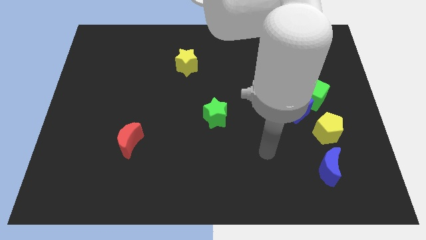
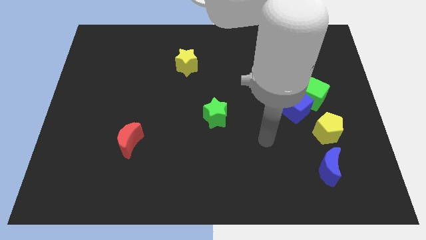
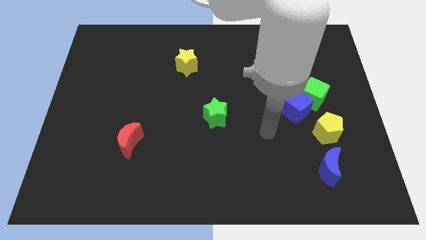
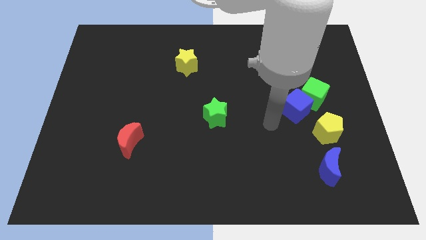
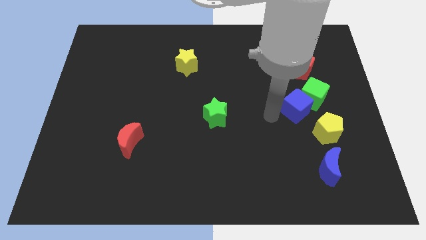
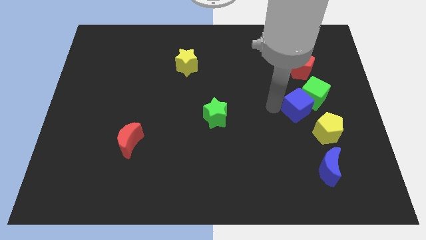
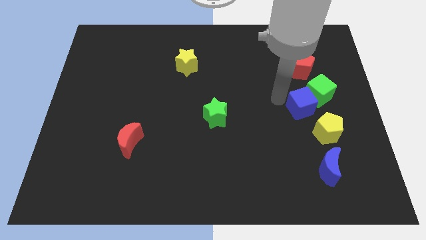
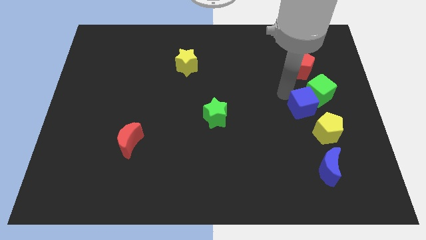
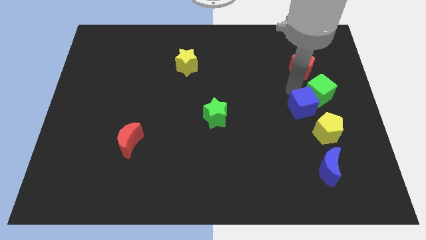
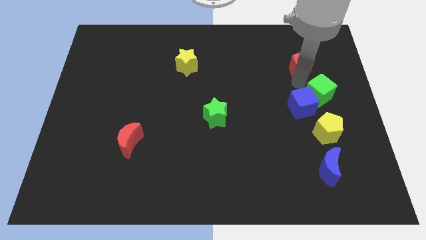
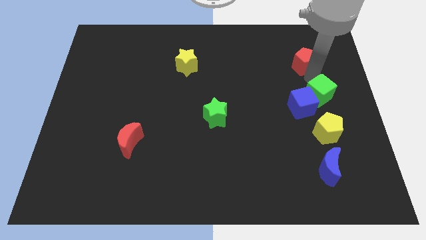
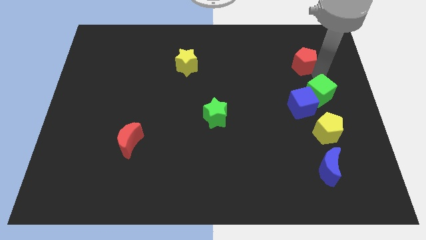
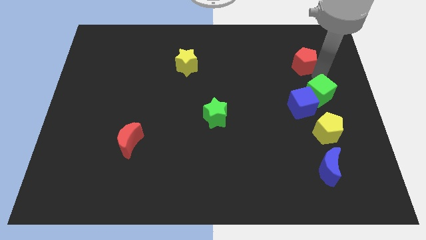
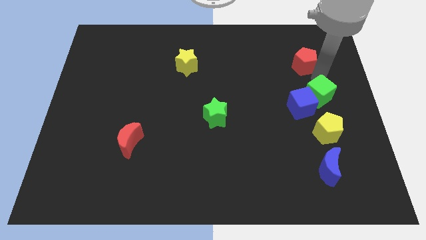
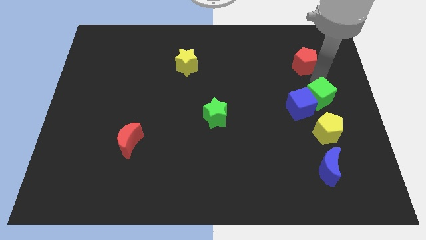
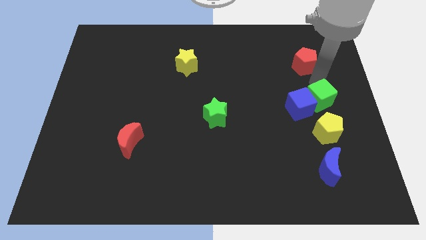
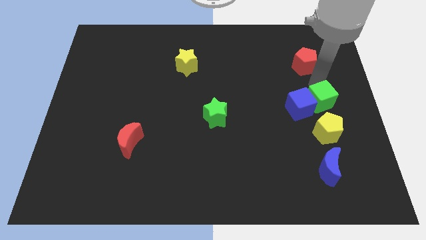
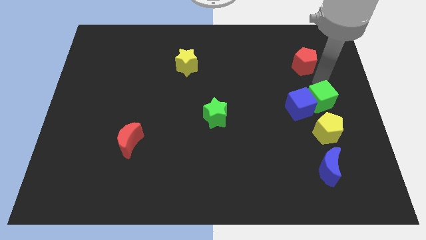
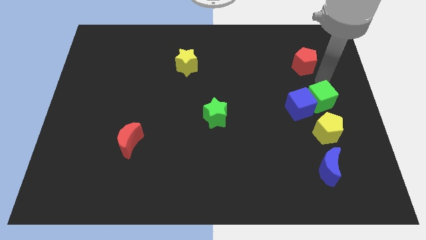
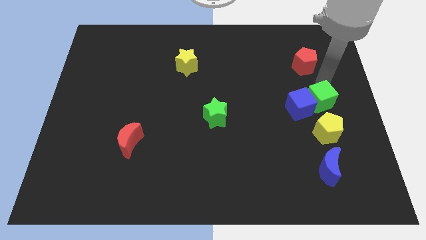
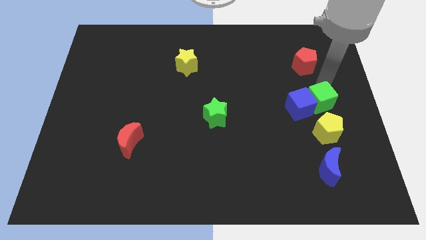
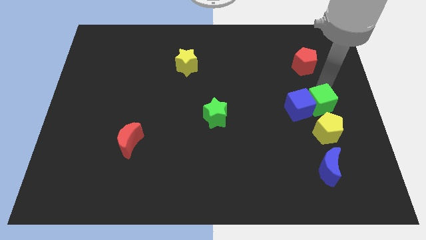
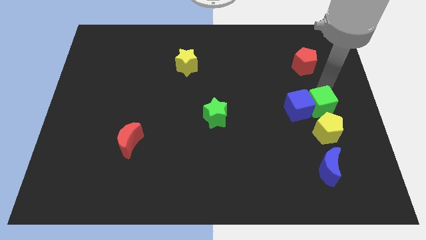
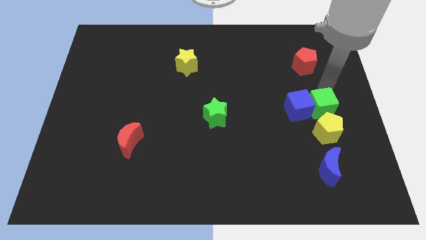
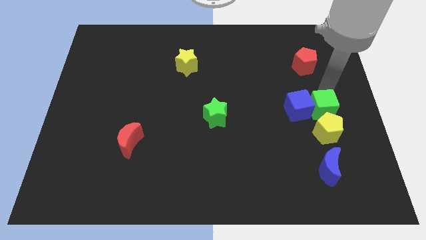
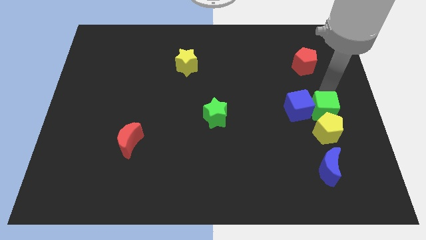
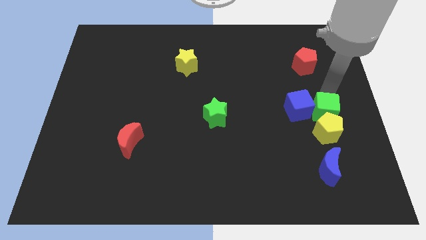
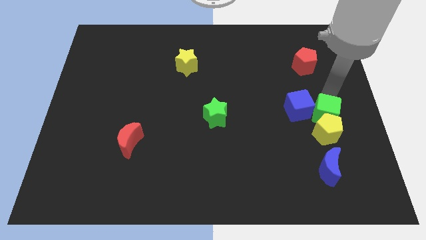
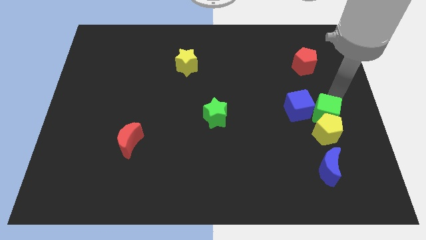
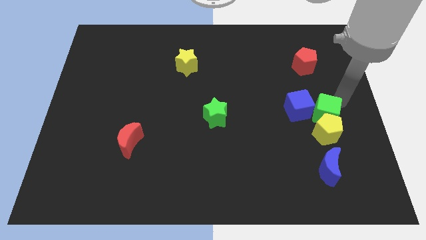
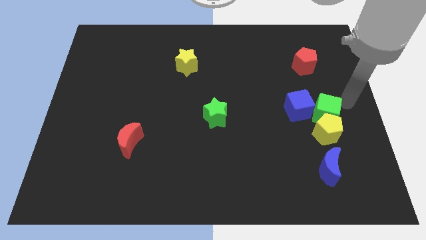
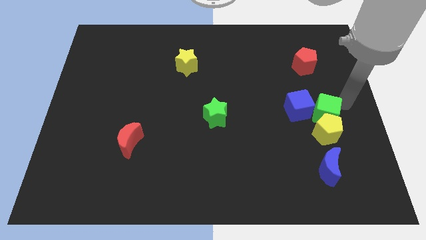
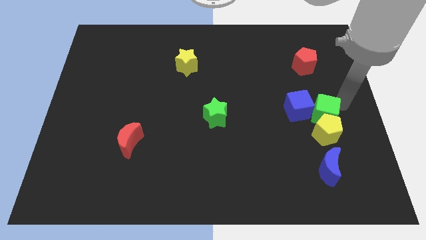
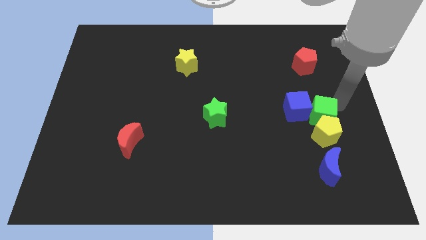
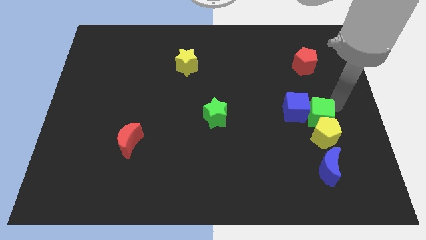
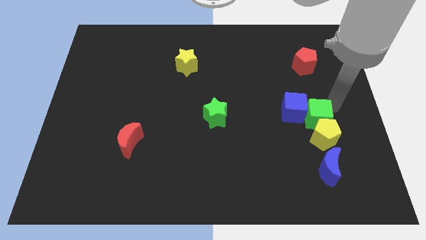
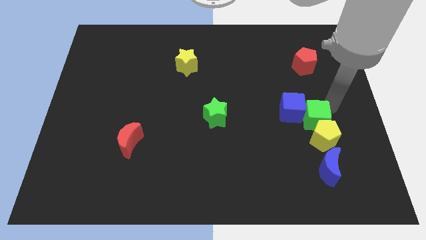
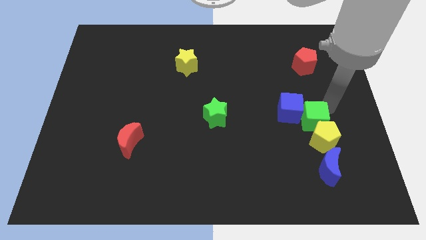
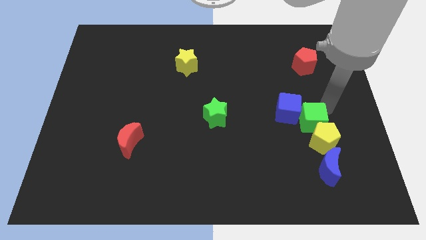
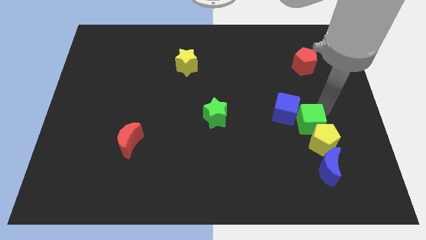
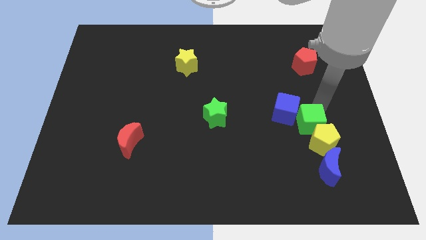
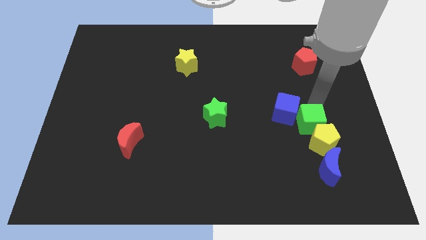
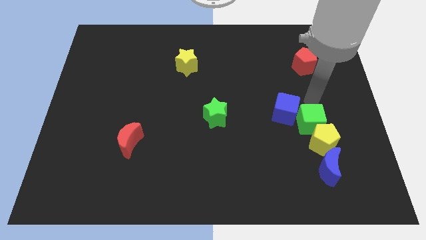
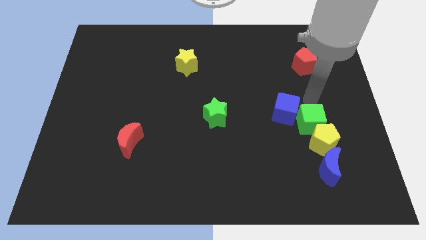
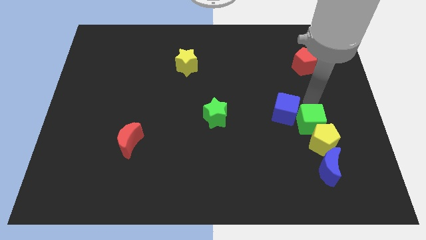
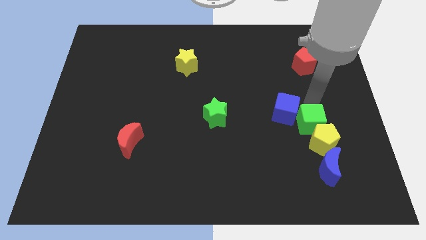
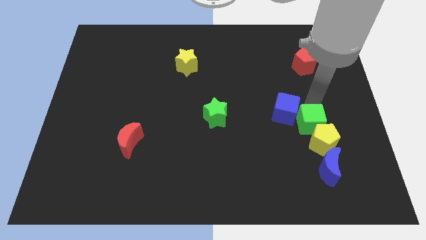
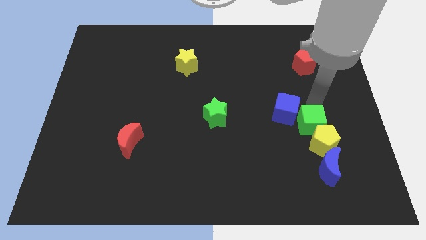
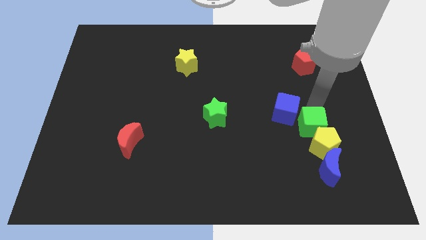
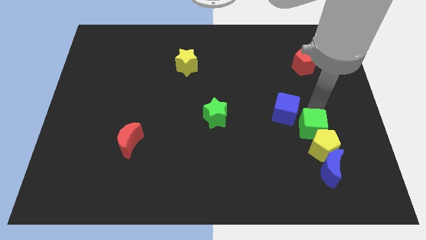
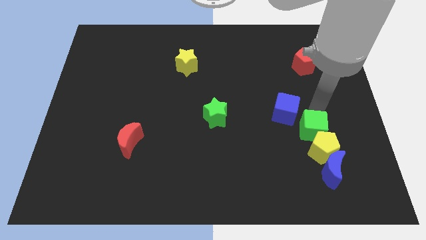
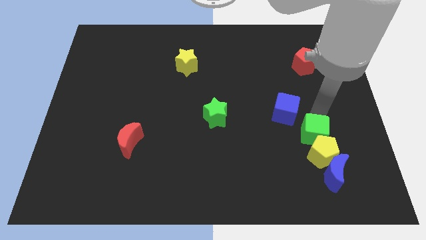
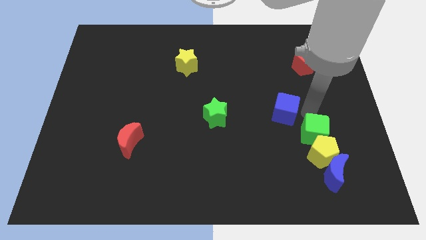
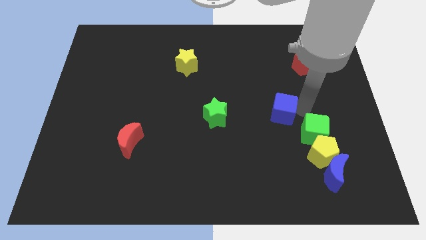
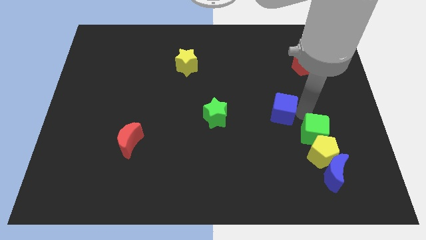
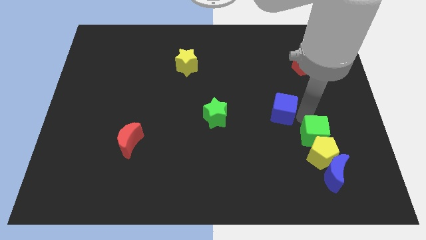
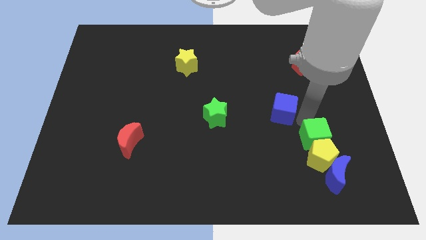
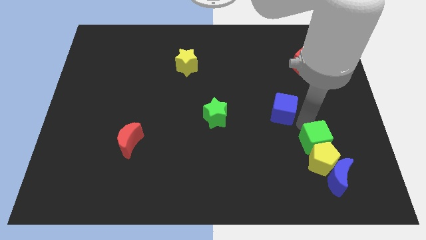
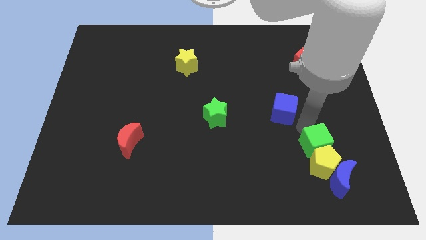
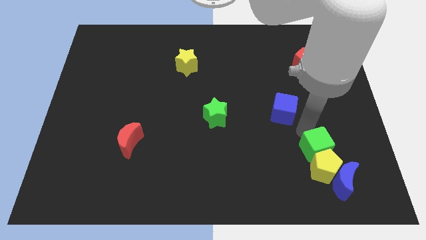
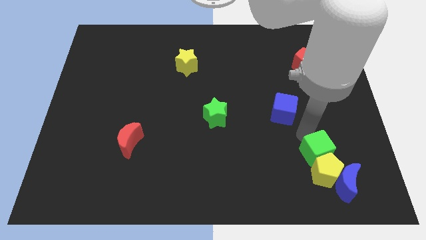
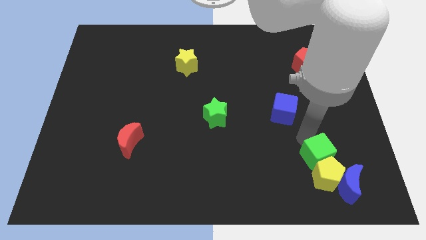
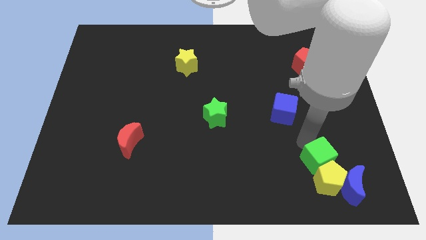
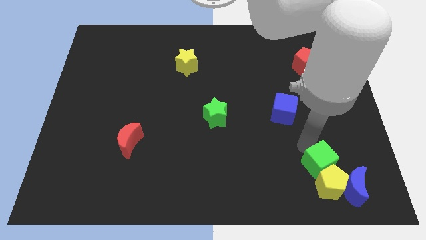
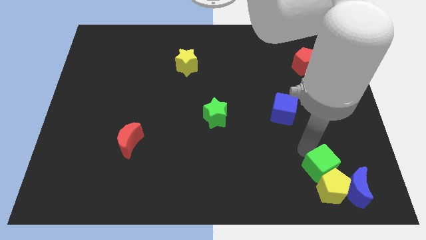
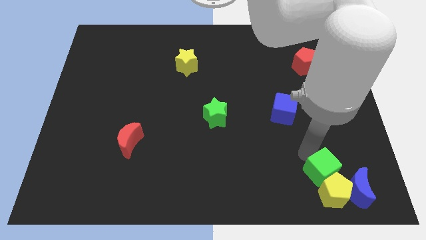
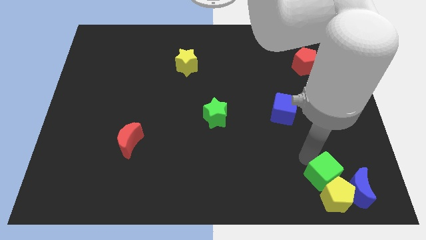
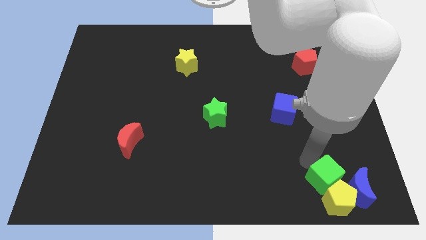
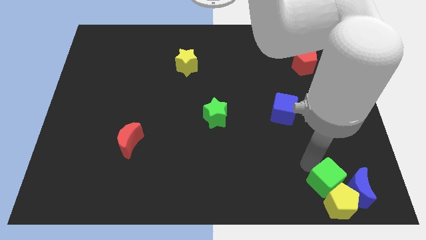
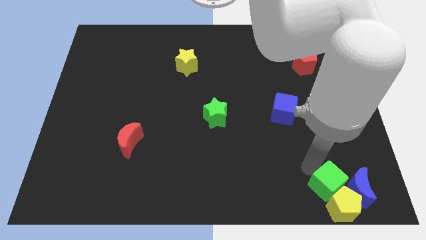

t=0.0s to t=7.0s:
push the green cube next to the blue moon

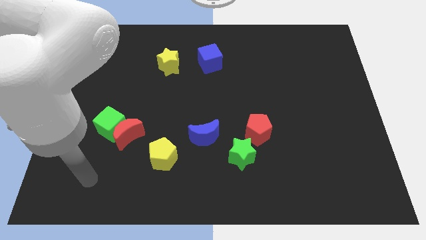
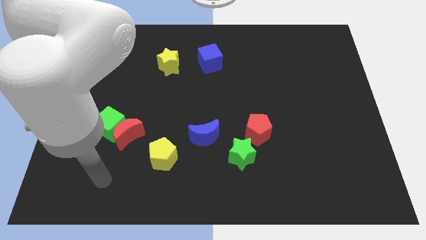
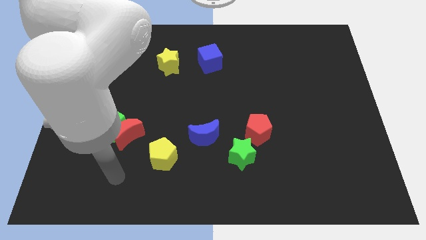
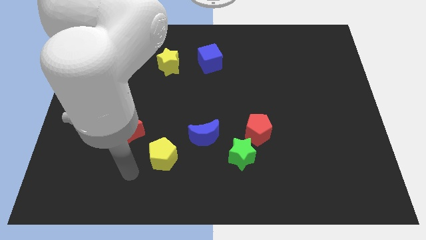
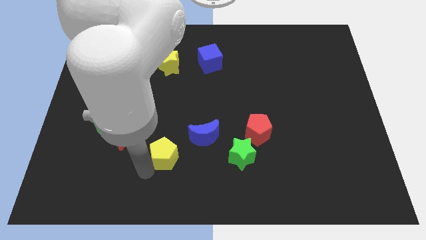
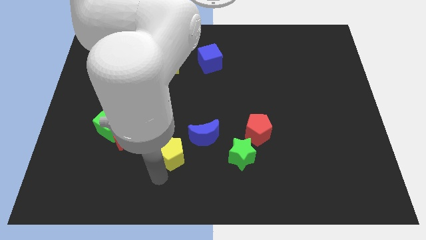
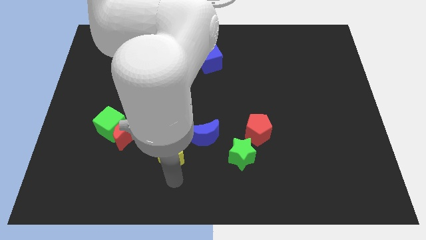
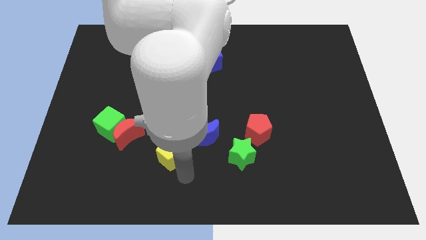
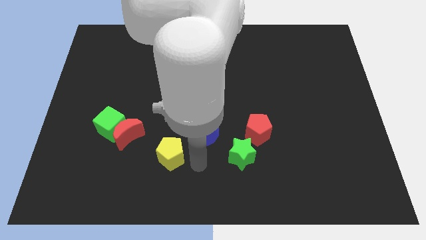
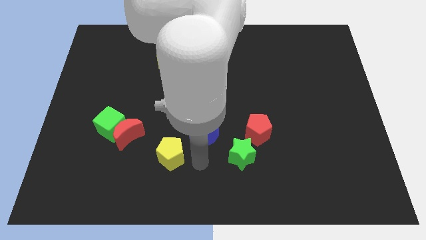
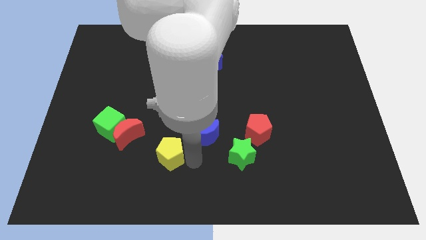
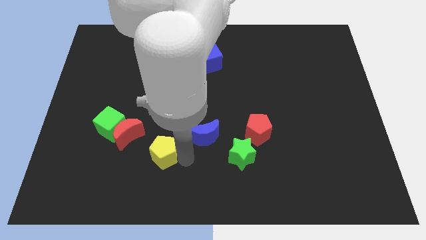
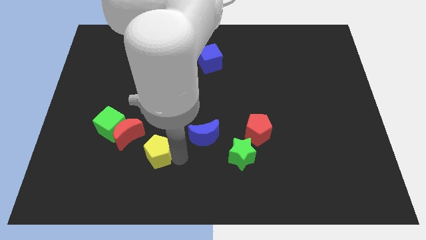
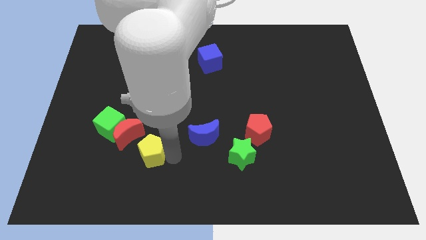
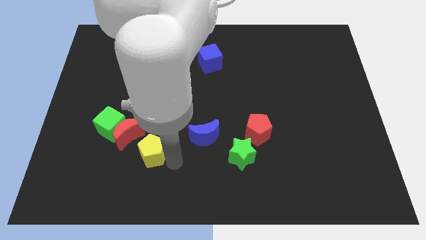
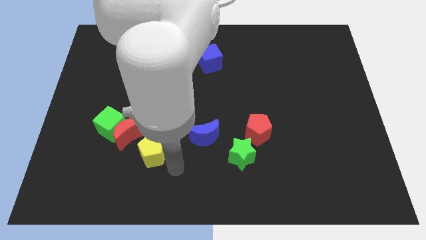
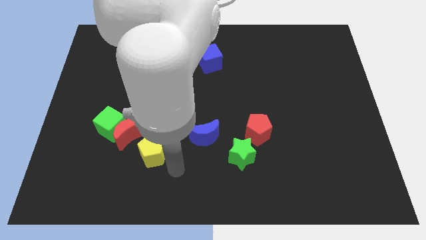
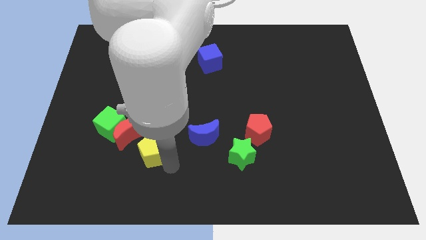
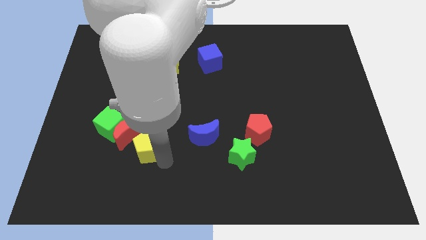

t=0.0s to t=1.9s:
slide the yellow pentagon next to the red moon
